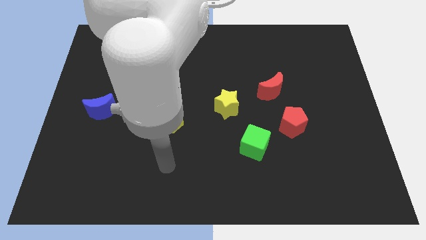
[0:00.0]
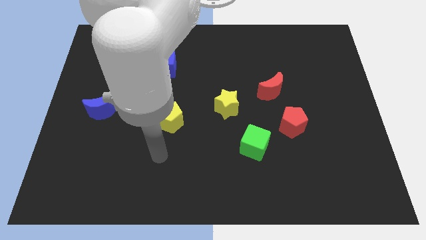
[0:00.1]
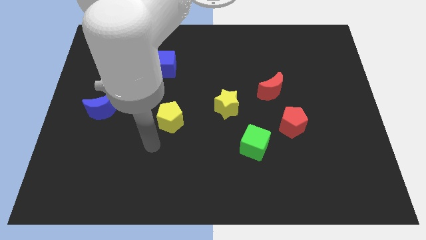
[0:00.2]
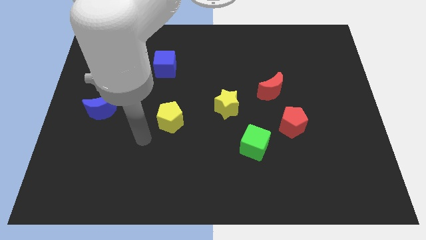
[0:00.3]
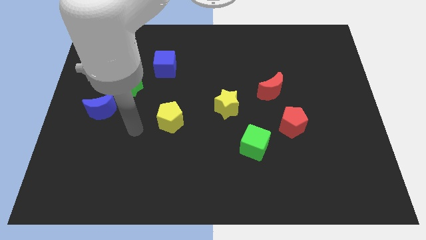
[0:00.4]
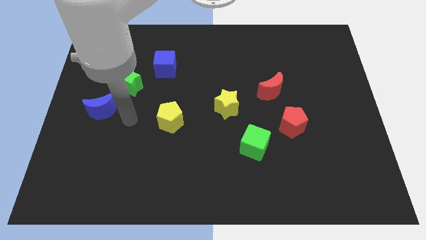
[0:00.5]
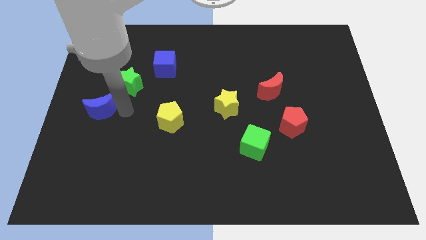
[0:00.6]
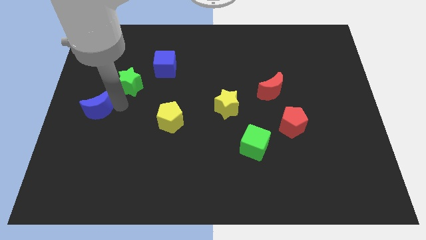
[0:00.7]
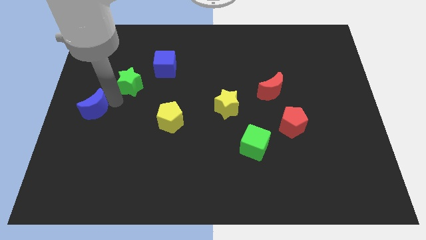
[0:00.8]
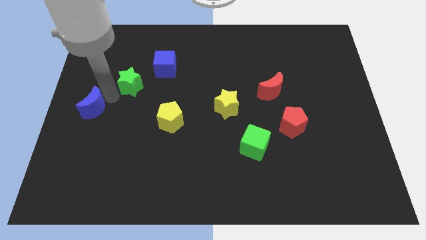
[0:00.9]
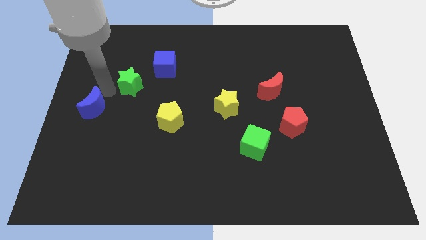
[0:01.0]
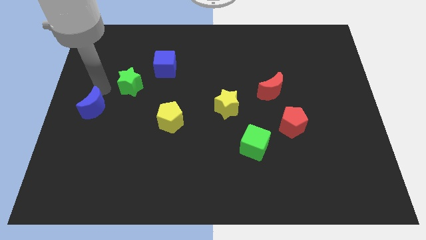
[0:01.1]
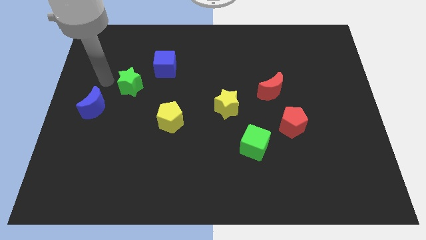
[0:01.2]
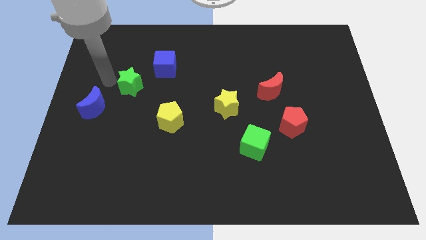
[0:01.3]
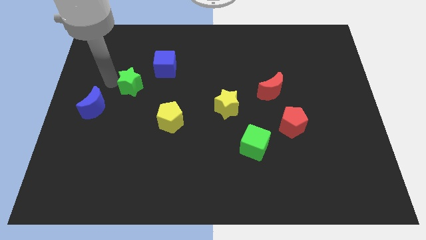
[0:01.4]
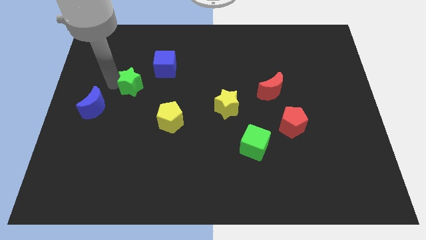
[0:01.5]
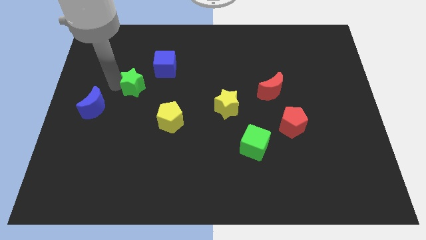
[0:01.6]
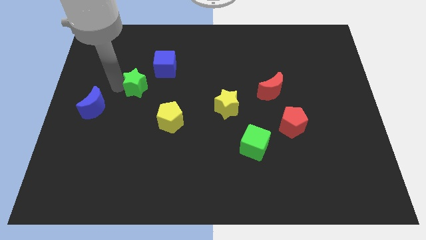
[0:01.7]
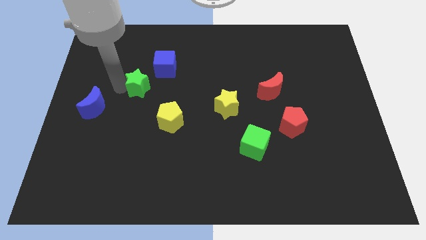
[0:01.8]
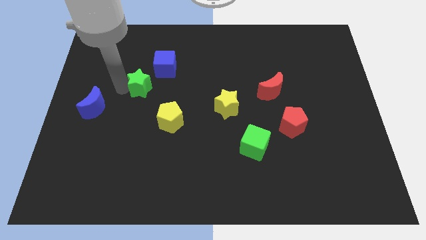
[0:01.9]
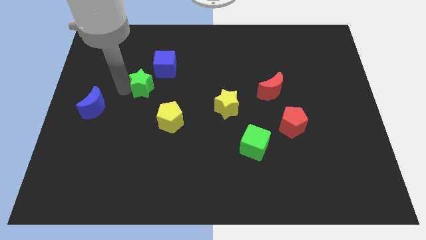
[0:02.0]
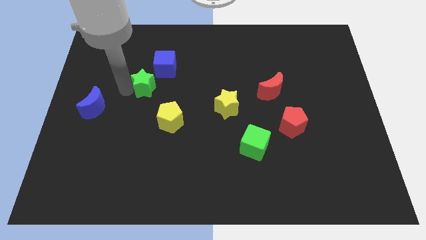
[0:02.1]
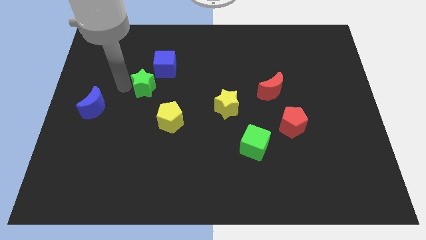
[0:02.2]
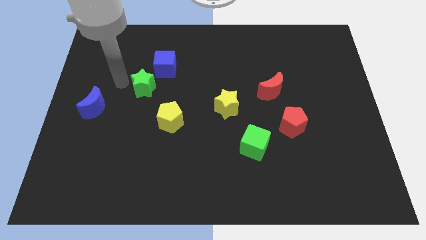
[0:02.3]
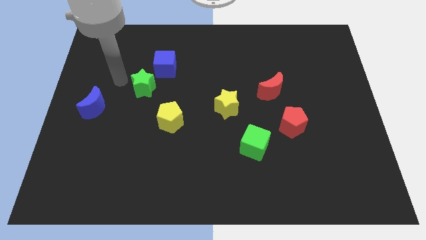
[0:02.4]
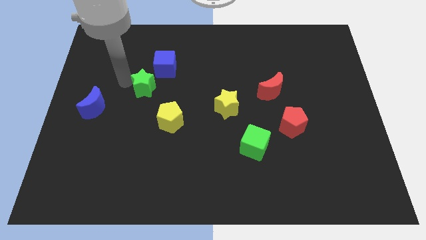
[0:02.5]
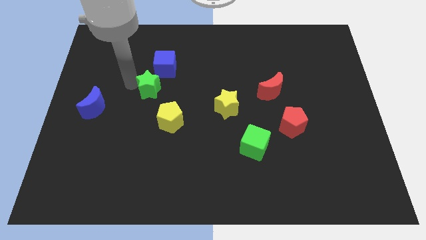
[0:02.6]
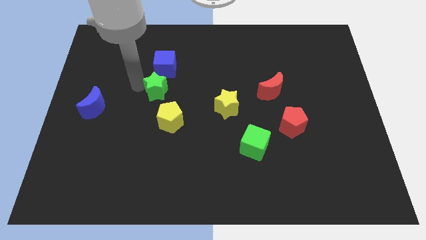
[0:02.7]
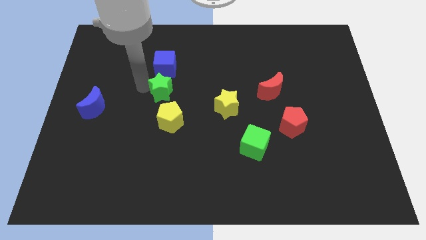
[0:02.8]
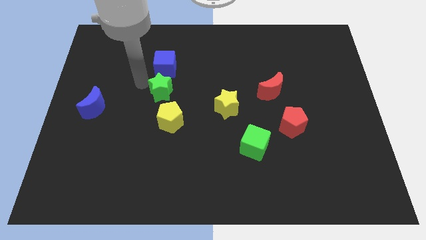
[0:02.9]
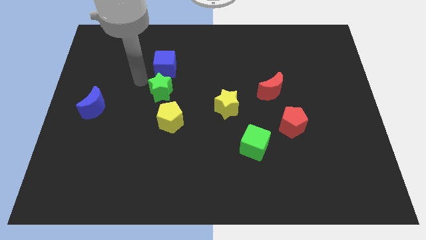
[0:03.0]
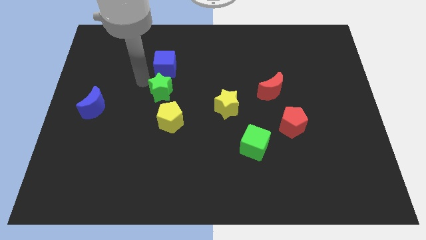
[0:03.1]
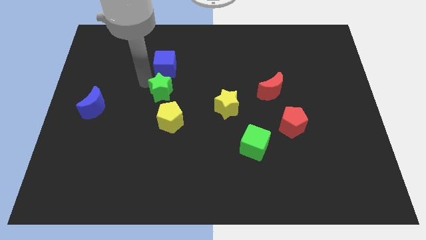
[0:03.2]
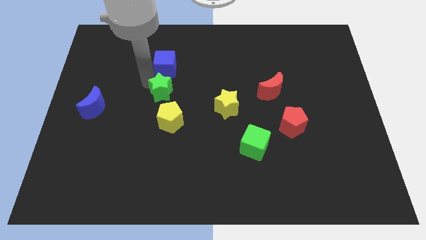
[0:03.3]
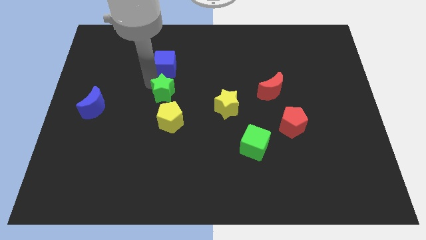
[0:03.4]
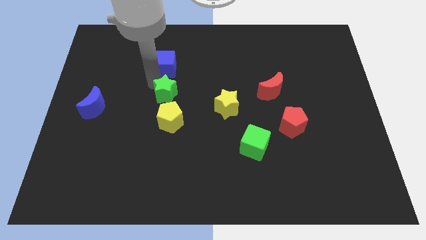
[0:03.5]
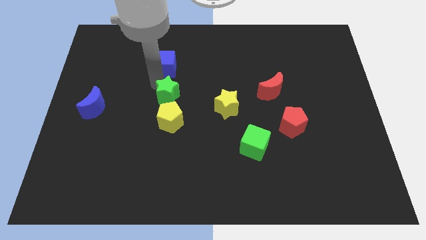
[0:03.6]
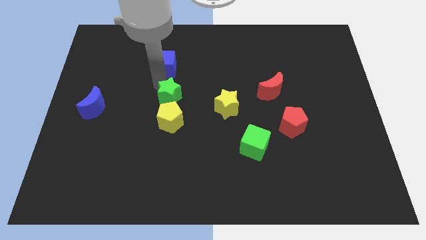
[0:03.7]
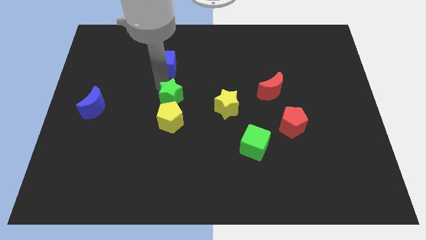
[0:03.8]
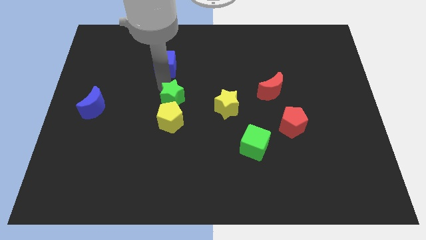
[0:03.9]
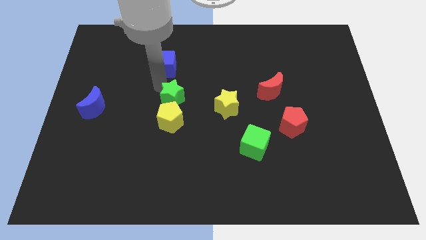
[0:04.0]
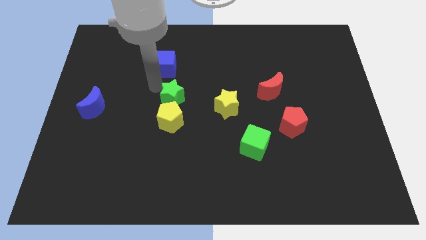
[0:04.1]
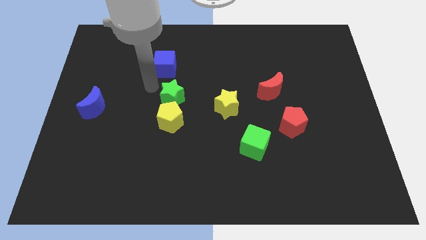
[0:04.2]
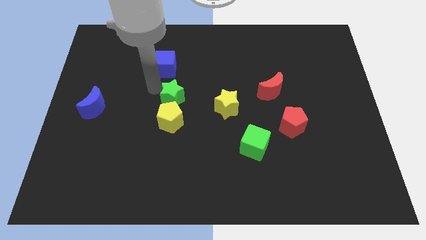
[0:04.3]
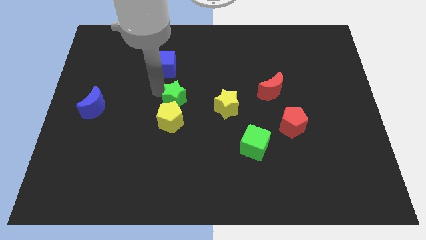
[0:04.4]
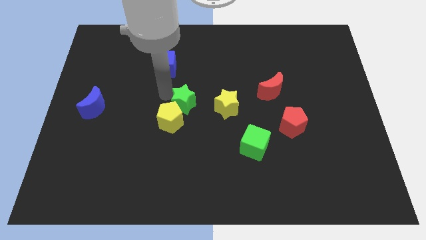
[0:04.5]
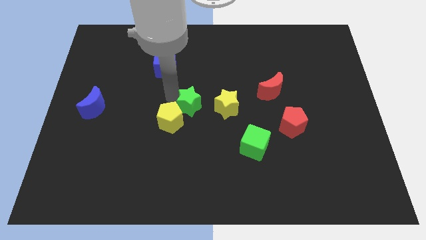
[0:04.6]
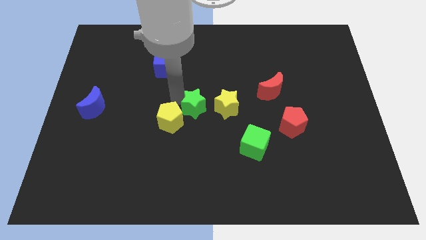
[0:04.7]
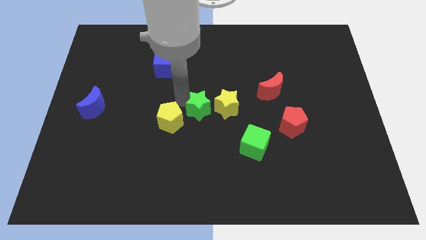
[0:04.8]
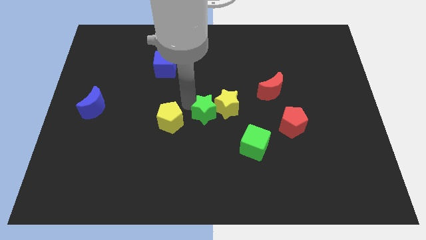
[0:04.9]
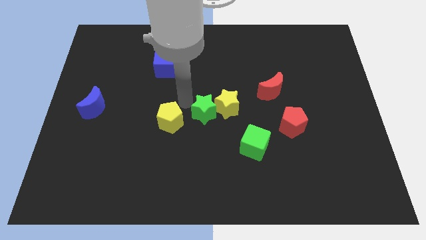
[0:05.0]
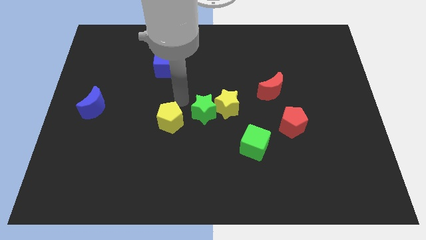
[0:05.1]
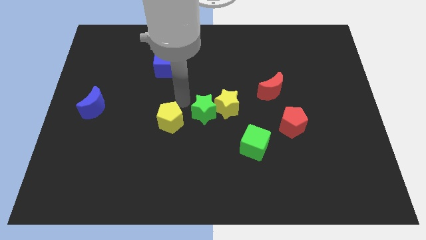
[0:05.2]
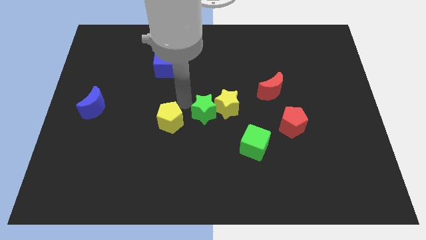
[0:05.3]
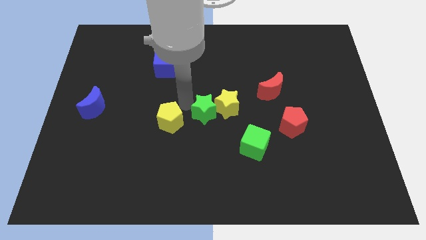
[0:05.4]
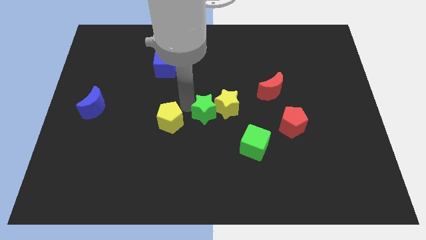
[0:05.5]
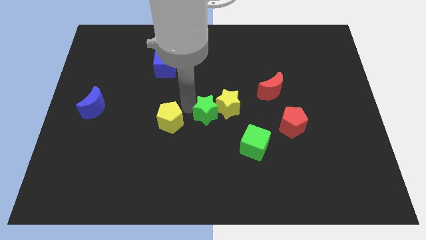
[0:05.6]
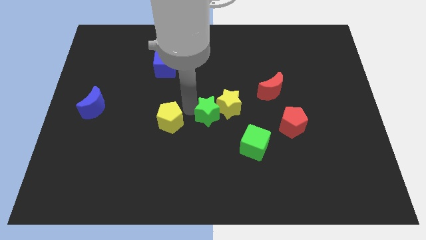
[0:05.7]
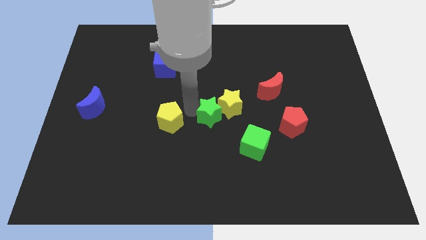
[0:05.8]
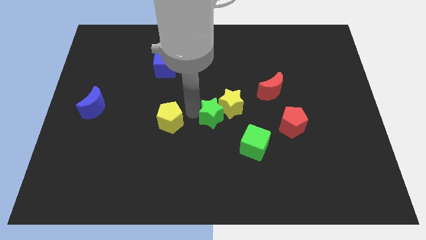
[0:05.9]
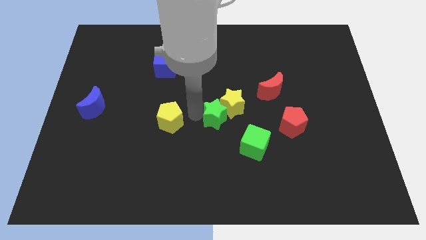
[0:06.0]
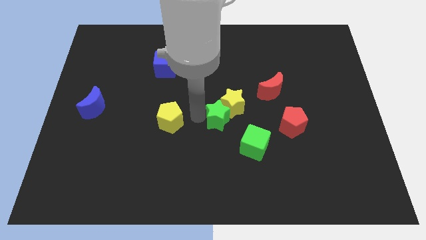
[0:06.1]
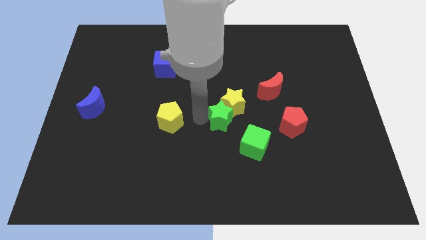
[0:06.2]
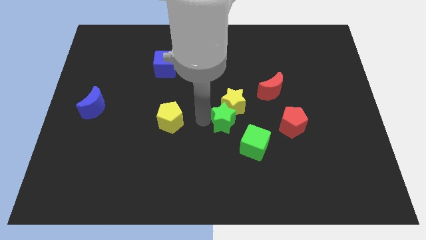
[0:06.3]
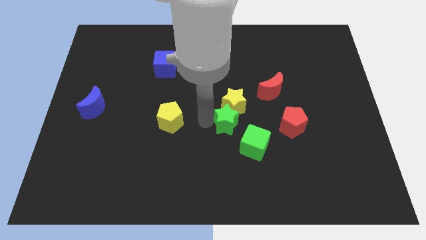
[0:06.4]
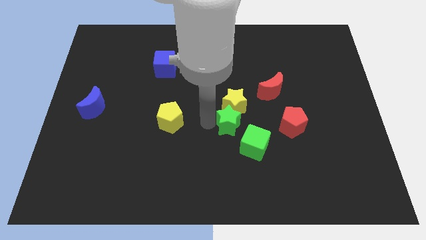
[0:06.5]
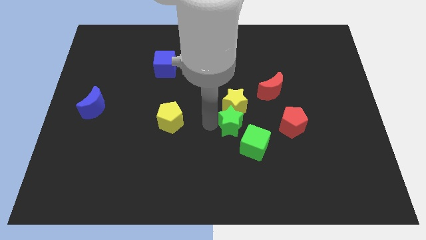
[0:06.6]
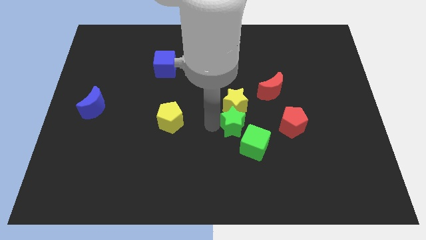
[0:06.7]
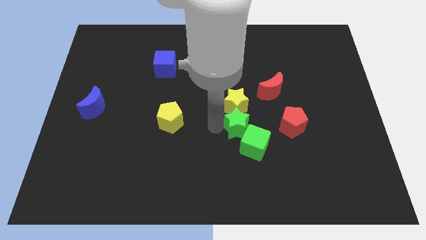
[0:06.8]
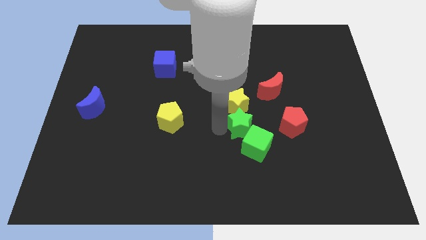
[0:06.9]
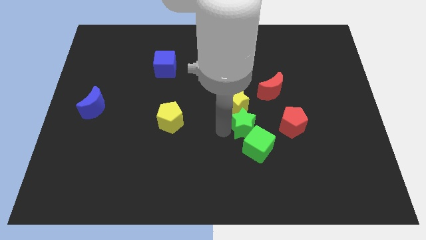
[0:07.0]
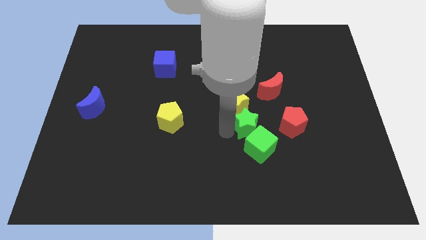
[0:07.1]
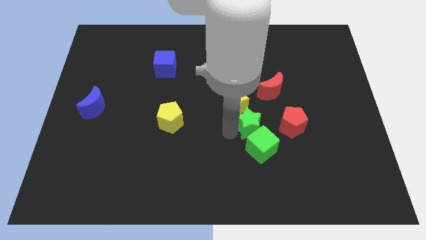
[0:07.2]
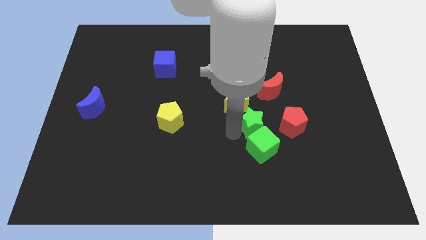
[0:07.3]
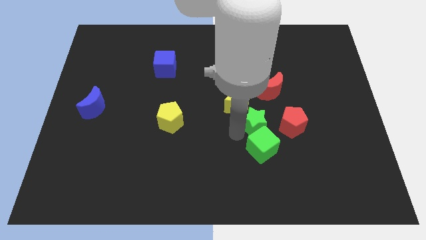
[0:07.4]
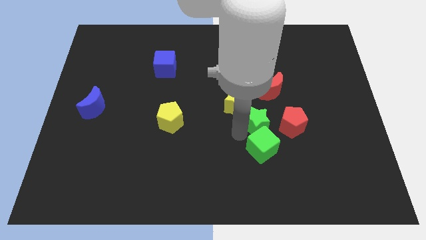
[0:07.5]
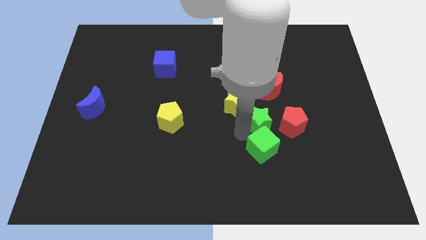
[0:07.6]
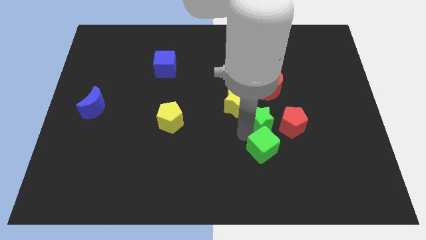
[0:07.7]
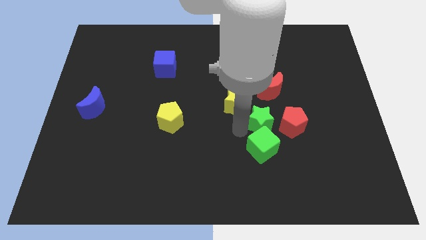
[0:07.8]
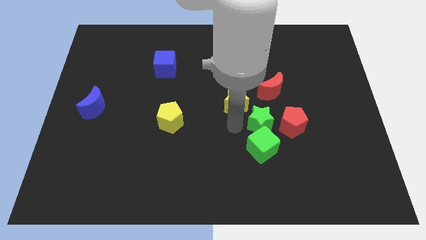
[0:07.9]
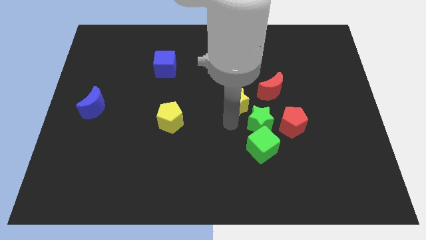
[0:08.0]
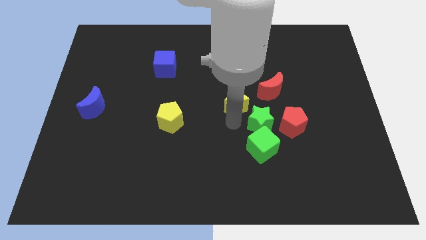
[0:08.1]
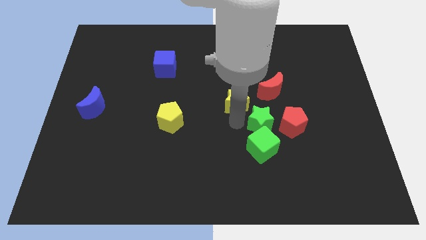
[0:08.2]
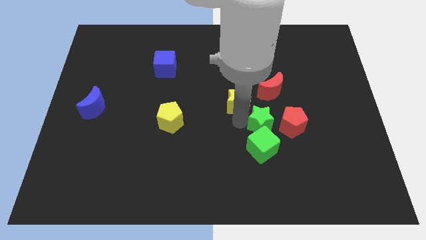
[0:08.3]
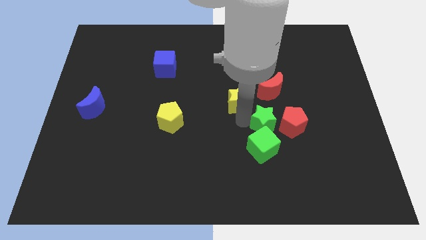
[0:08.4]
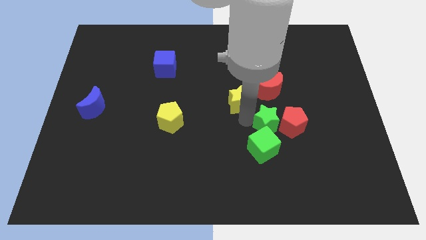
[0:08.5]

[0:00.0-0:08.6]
push the green star to the red pentagon
